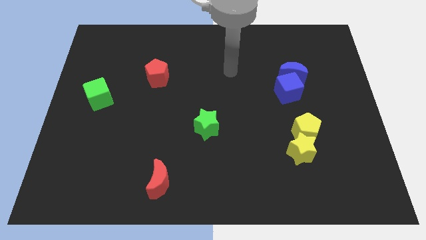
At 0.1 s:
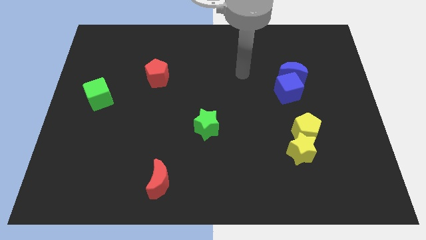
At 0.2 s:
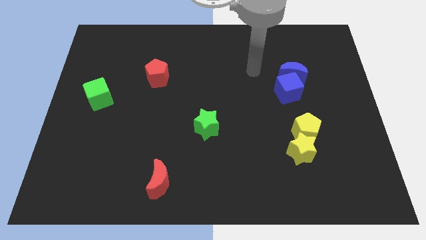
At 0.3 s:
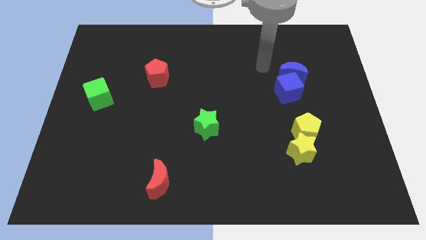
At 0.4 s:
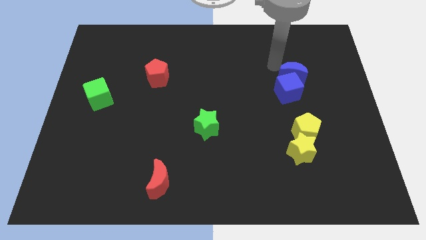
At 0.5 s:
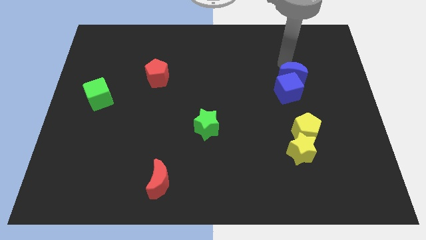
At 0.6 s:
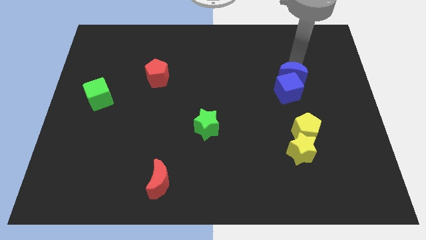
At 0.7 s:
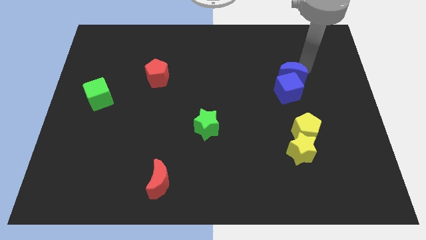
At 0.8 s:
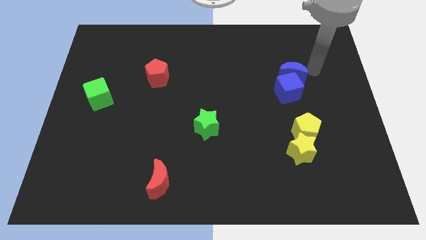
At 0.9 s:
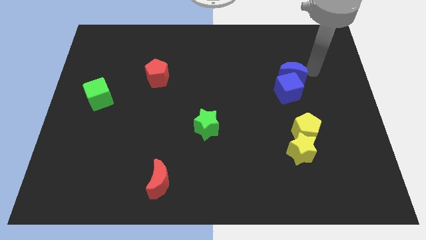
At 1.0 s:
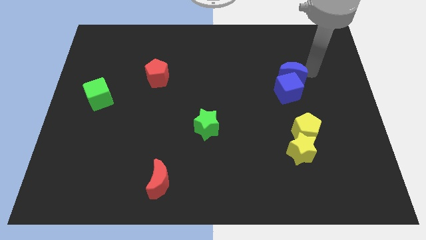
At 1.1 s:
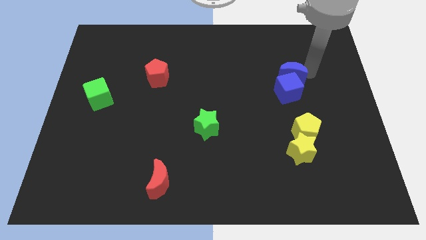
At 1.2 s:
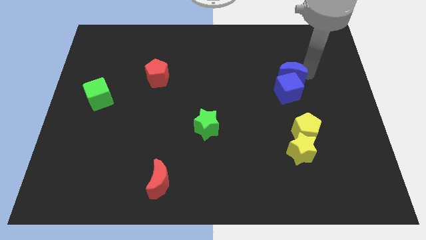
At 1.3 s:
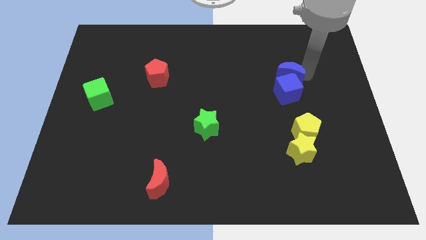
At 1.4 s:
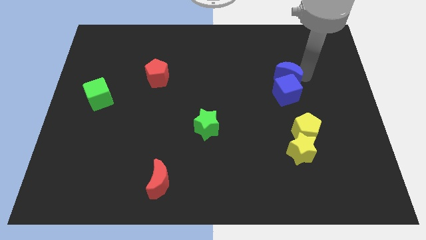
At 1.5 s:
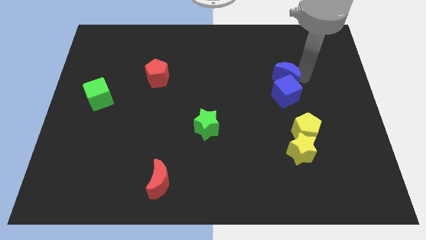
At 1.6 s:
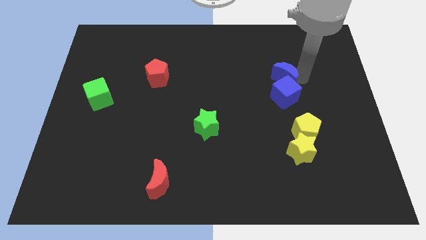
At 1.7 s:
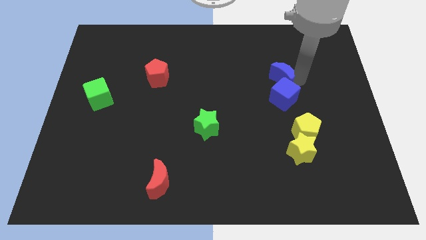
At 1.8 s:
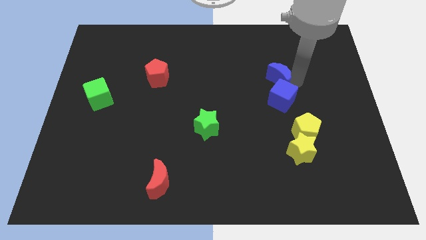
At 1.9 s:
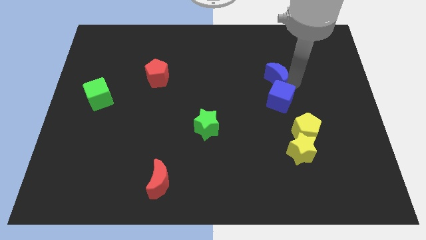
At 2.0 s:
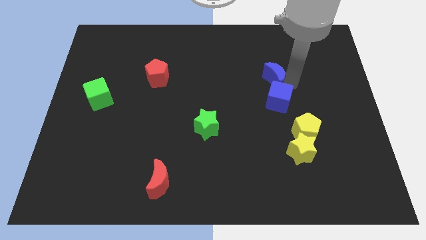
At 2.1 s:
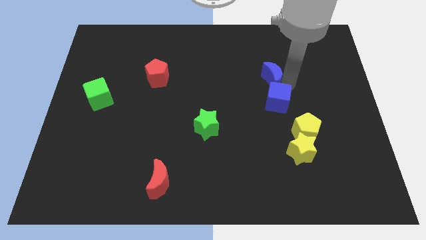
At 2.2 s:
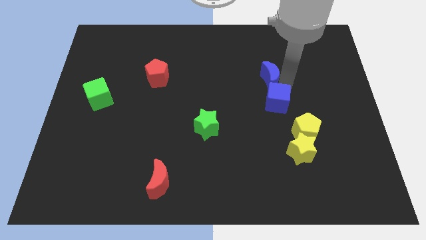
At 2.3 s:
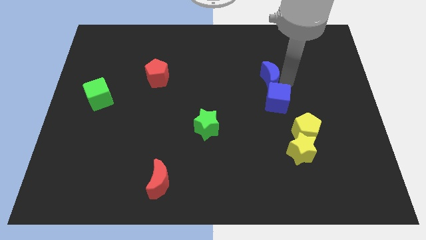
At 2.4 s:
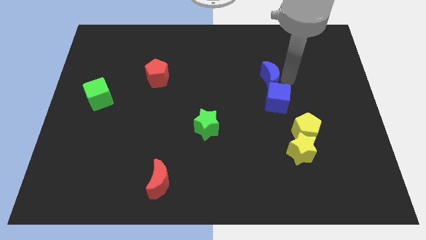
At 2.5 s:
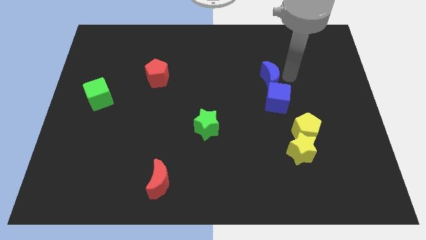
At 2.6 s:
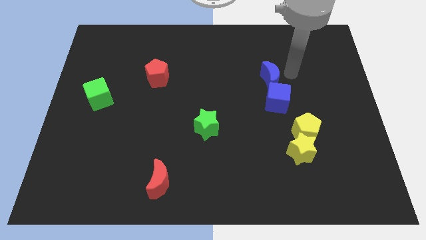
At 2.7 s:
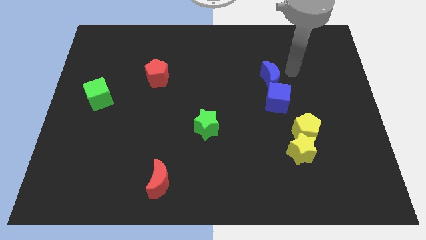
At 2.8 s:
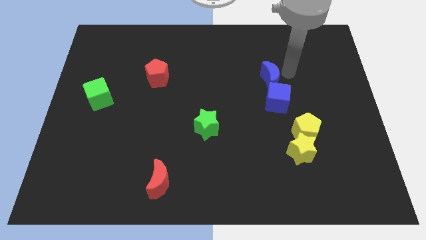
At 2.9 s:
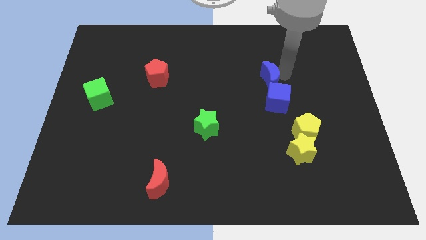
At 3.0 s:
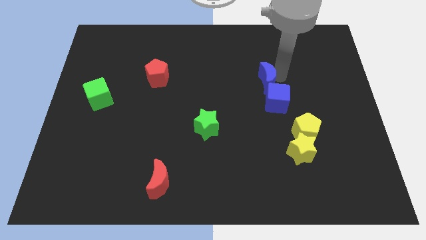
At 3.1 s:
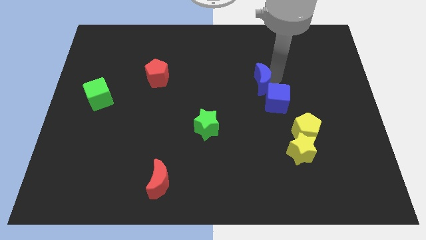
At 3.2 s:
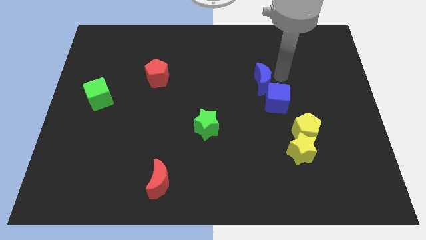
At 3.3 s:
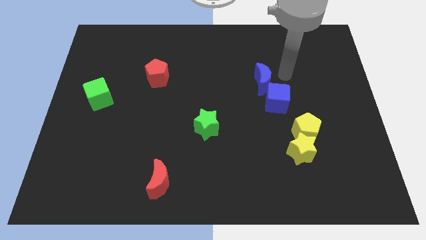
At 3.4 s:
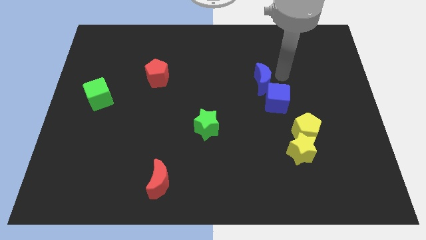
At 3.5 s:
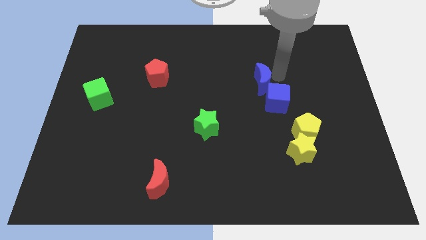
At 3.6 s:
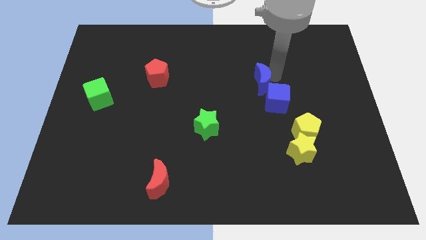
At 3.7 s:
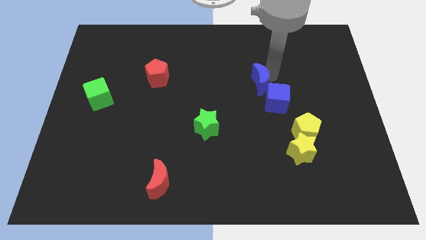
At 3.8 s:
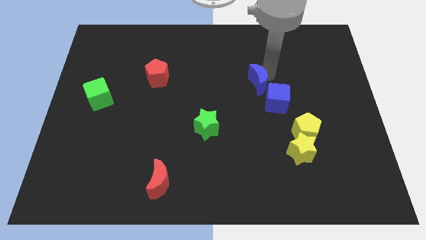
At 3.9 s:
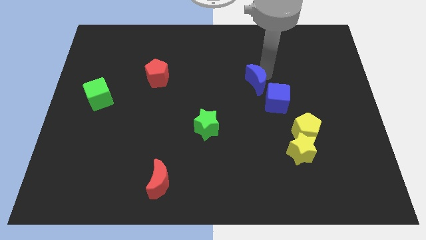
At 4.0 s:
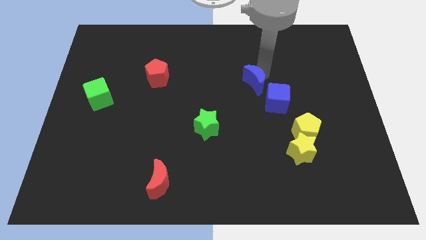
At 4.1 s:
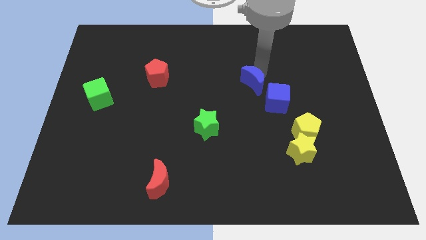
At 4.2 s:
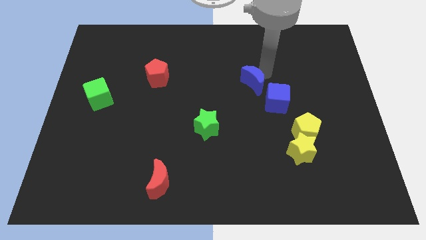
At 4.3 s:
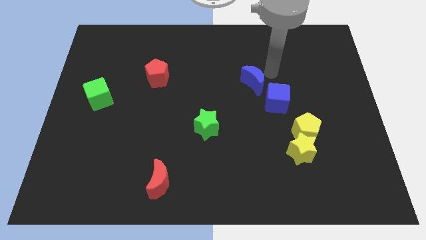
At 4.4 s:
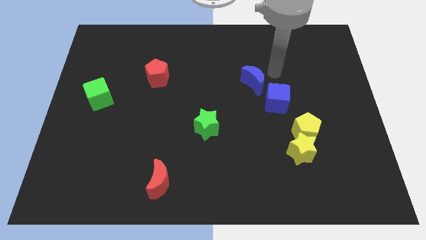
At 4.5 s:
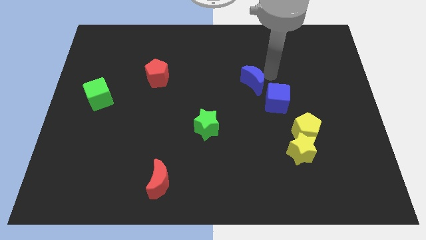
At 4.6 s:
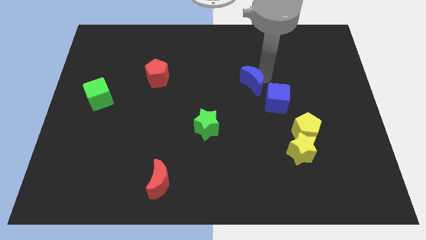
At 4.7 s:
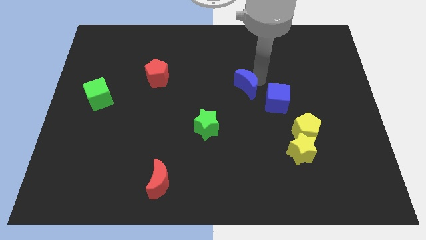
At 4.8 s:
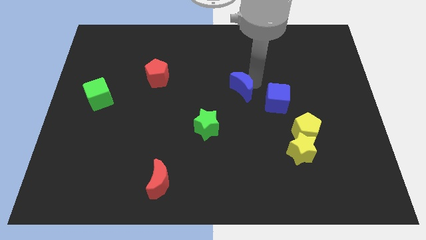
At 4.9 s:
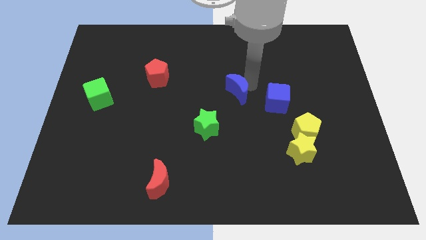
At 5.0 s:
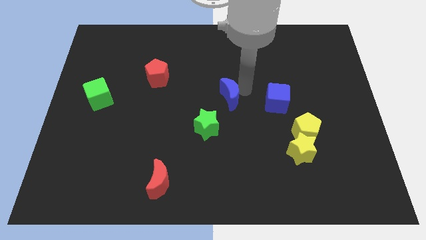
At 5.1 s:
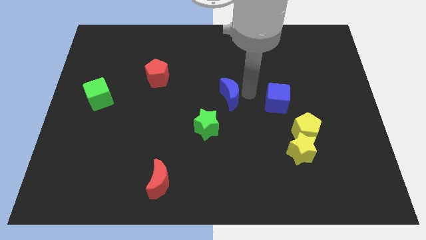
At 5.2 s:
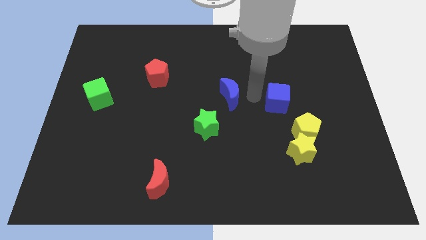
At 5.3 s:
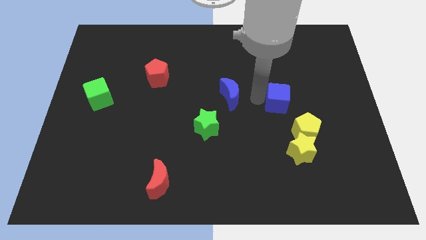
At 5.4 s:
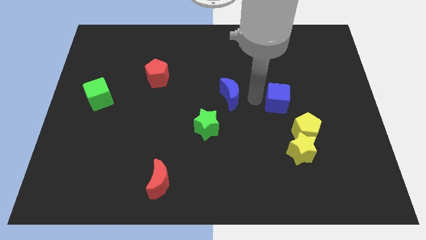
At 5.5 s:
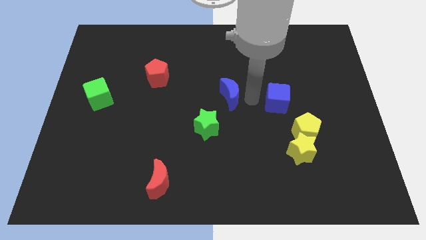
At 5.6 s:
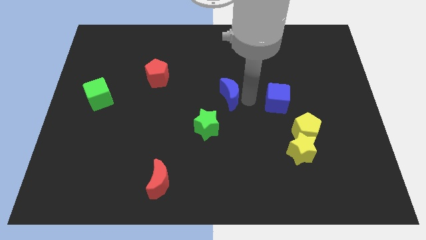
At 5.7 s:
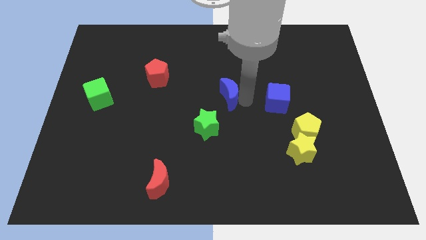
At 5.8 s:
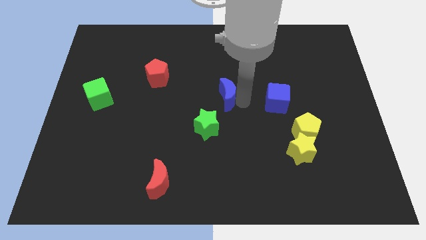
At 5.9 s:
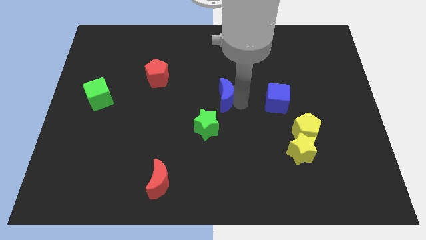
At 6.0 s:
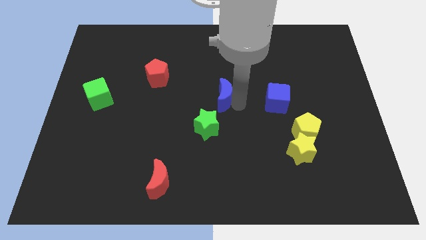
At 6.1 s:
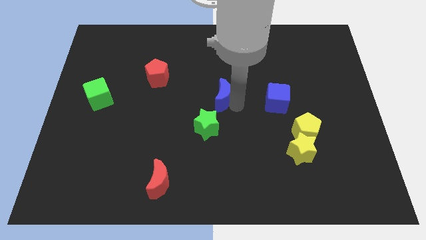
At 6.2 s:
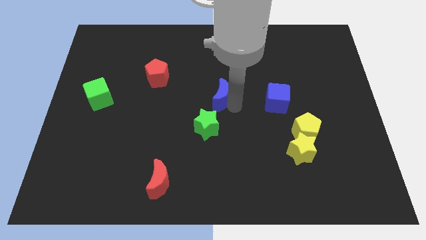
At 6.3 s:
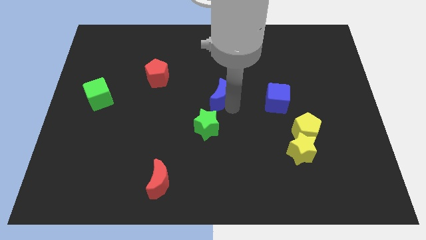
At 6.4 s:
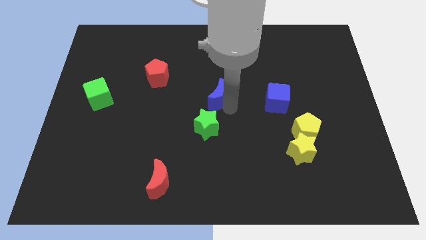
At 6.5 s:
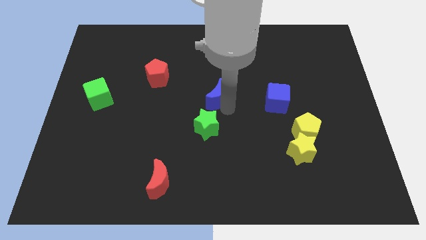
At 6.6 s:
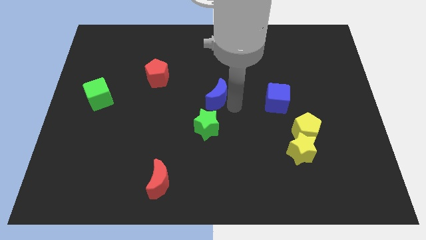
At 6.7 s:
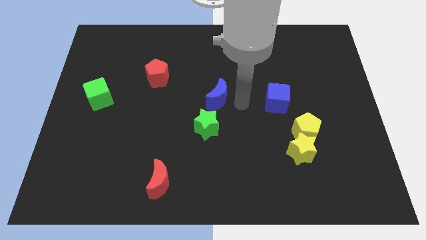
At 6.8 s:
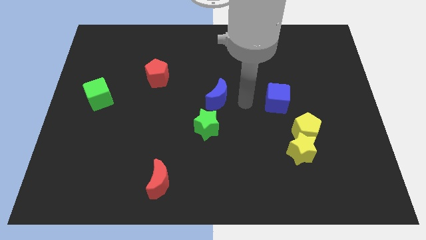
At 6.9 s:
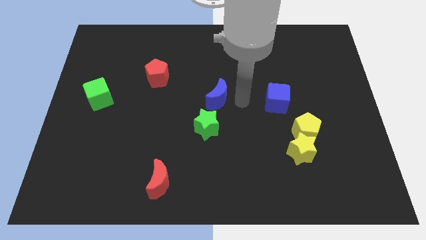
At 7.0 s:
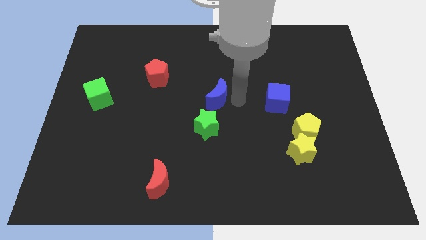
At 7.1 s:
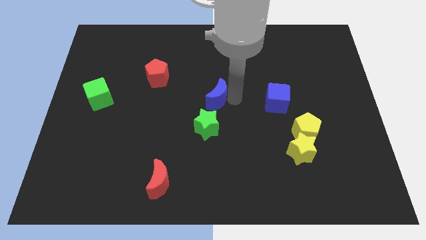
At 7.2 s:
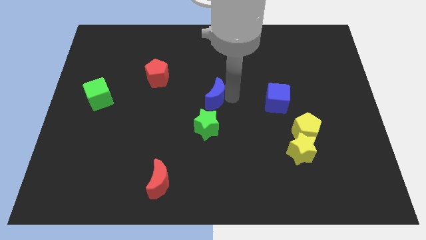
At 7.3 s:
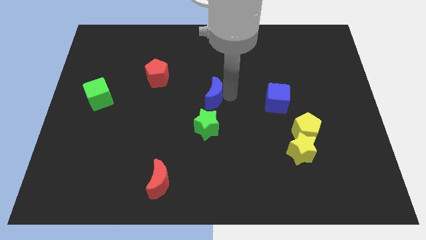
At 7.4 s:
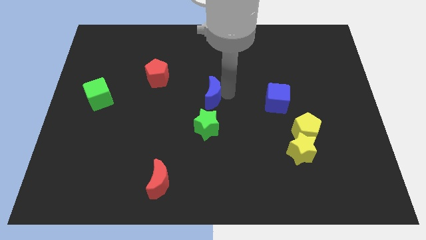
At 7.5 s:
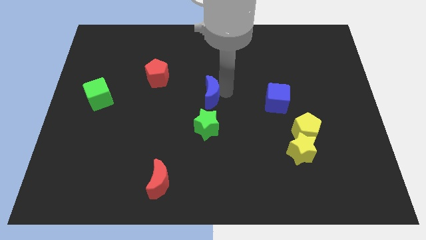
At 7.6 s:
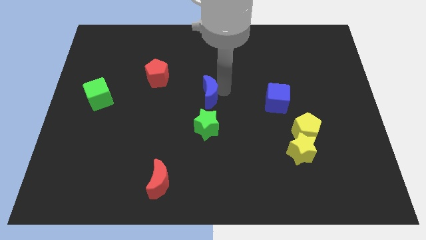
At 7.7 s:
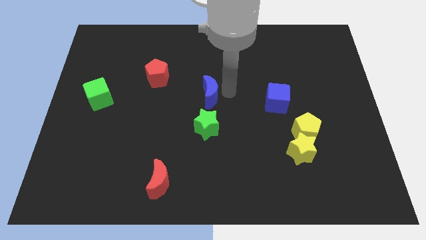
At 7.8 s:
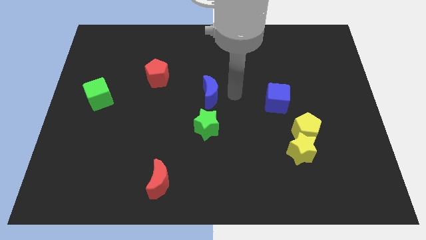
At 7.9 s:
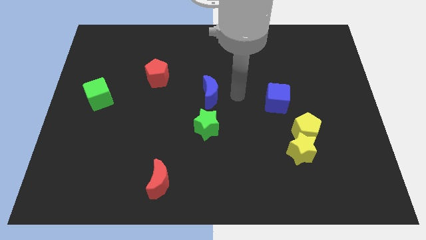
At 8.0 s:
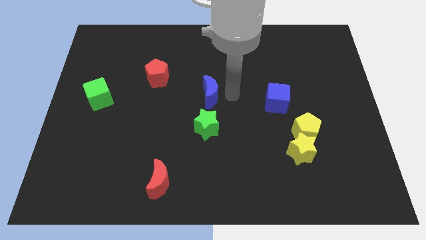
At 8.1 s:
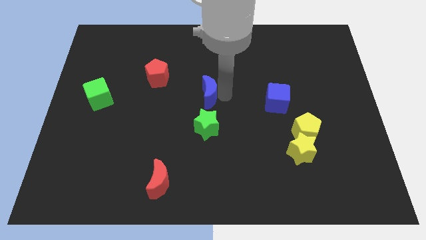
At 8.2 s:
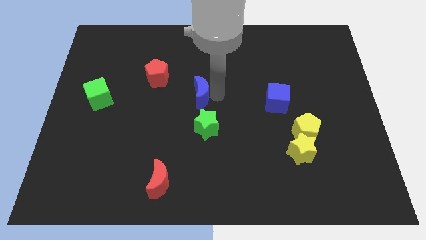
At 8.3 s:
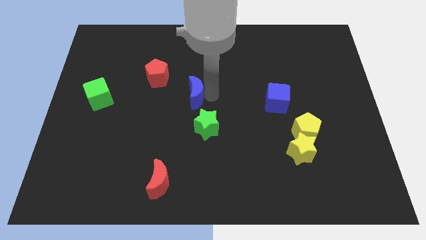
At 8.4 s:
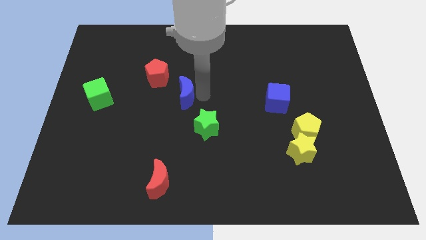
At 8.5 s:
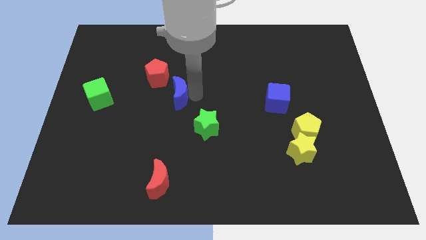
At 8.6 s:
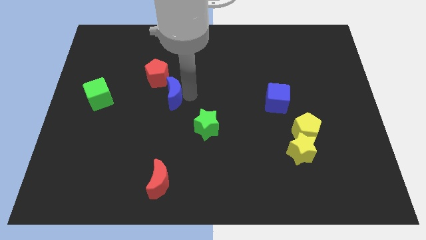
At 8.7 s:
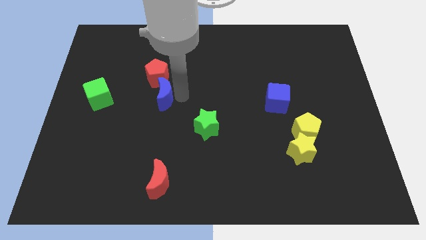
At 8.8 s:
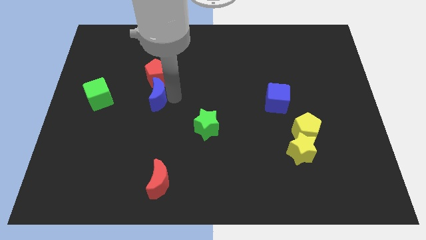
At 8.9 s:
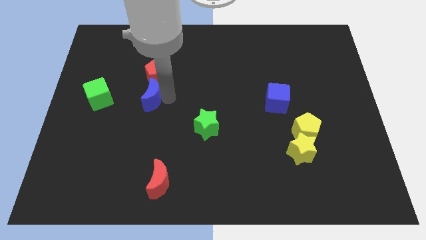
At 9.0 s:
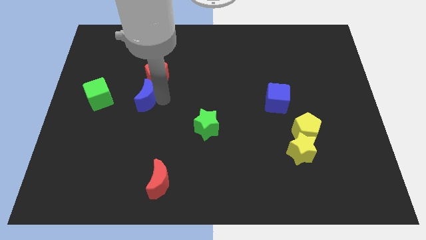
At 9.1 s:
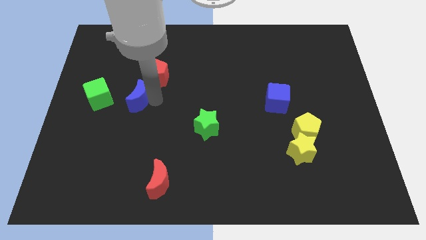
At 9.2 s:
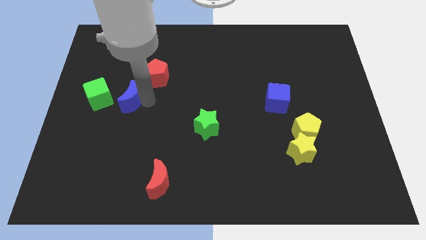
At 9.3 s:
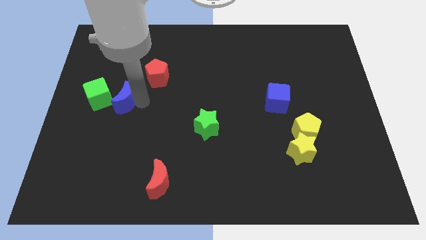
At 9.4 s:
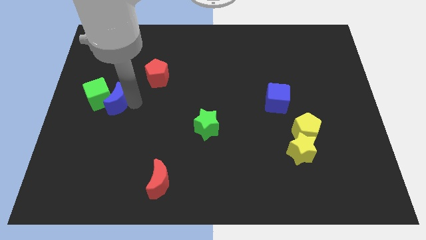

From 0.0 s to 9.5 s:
put the blue moon towards the green cube
